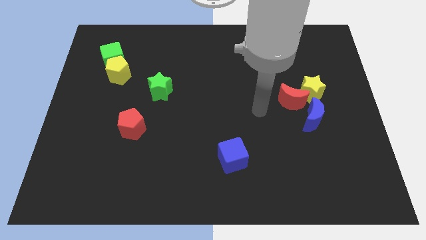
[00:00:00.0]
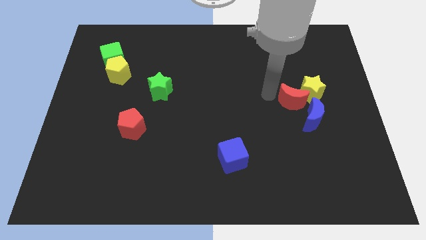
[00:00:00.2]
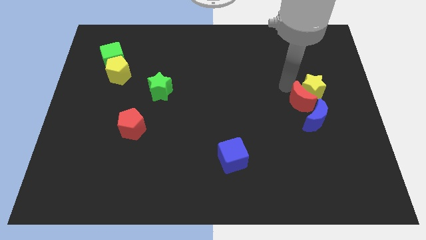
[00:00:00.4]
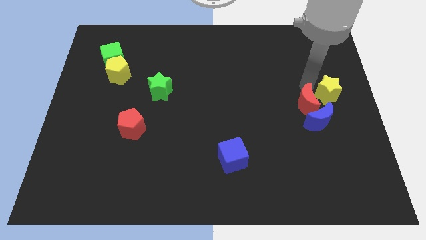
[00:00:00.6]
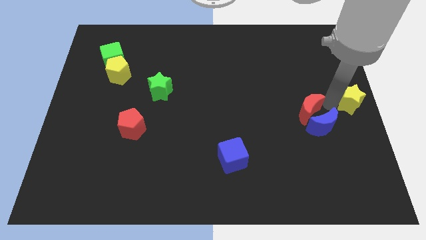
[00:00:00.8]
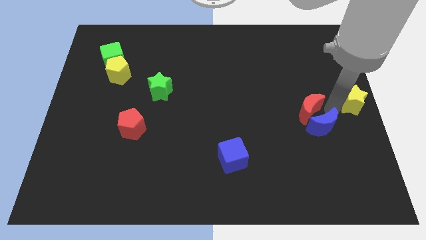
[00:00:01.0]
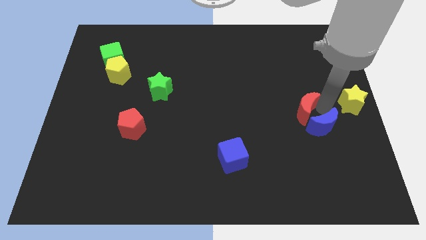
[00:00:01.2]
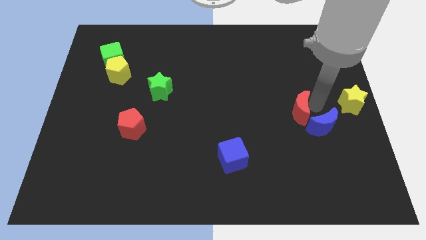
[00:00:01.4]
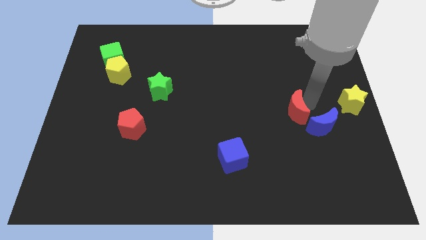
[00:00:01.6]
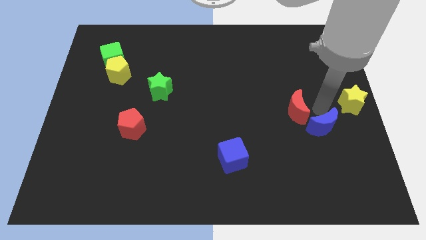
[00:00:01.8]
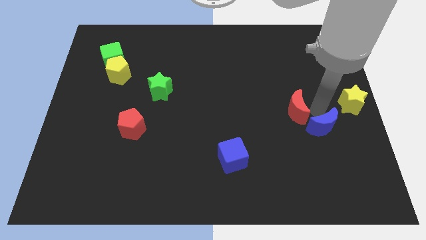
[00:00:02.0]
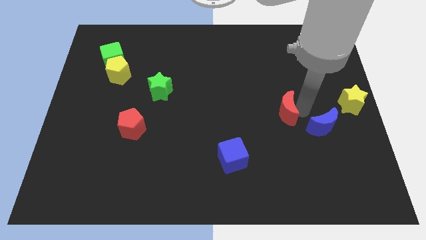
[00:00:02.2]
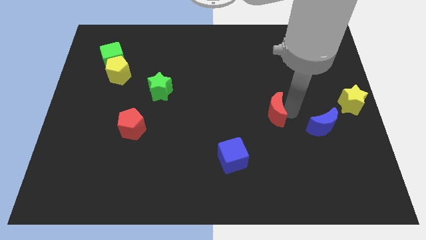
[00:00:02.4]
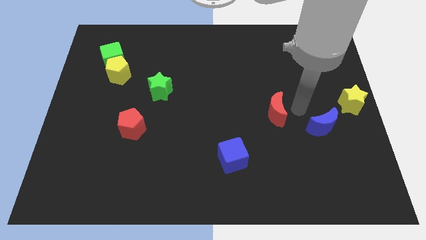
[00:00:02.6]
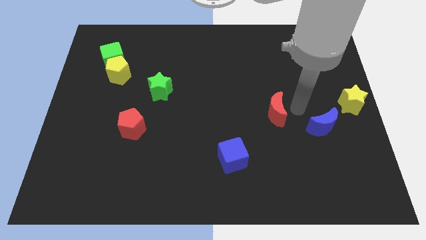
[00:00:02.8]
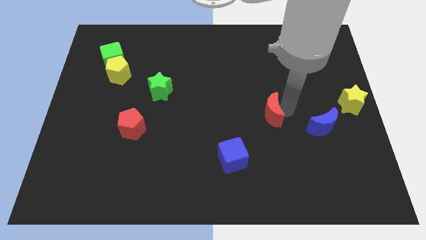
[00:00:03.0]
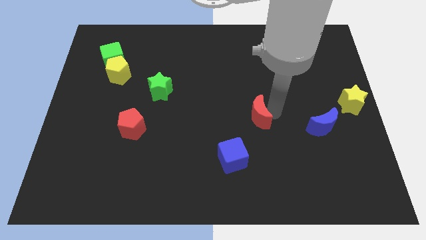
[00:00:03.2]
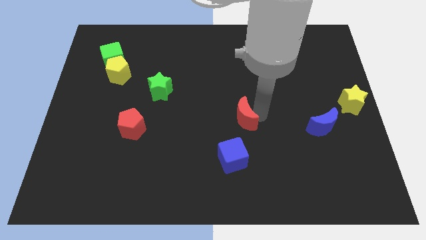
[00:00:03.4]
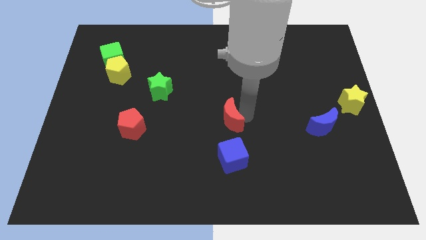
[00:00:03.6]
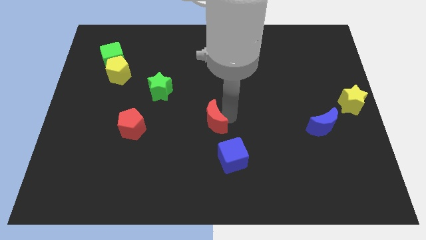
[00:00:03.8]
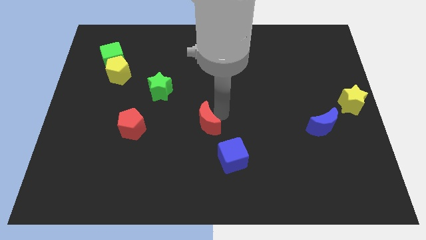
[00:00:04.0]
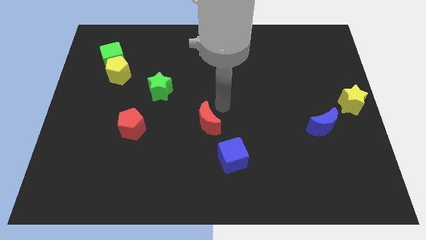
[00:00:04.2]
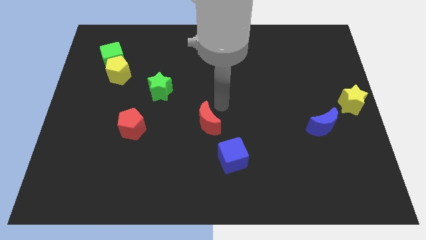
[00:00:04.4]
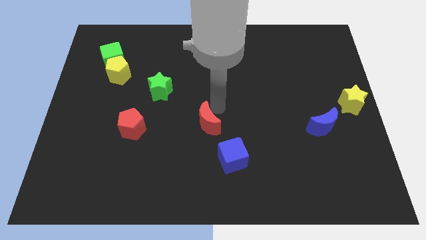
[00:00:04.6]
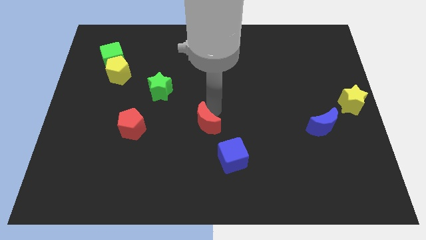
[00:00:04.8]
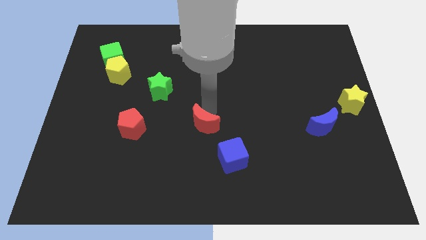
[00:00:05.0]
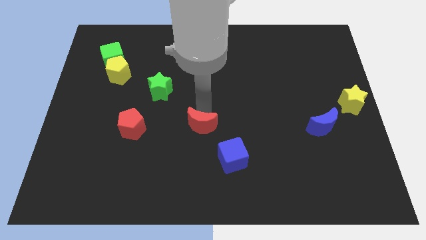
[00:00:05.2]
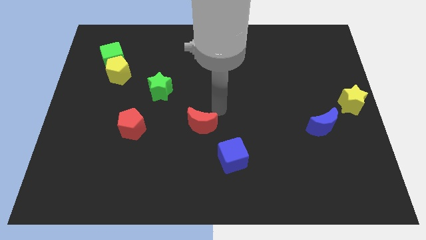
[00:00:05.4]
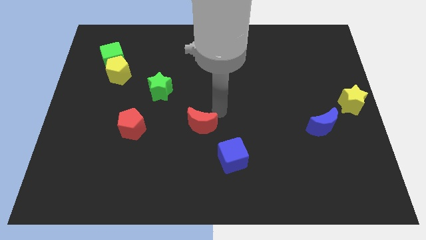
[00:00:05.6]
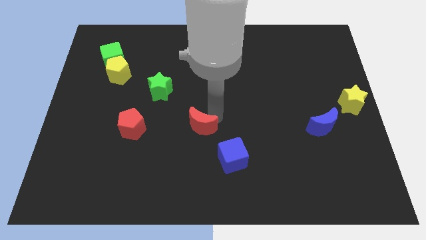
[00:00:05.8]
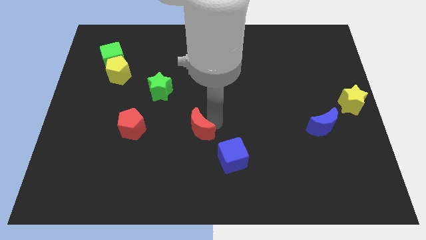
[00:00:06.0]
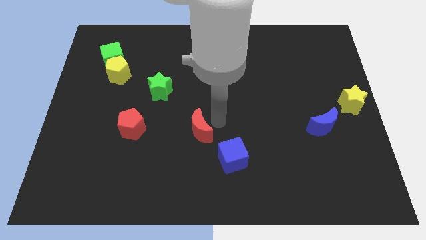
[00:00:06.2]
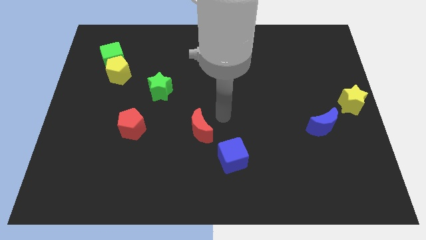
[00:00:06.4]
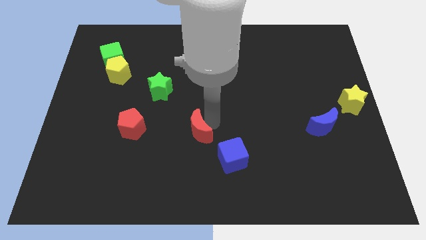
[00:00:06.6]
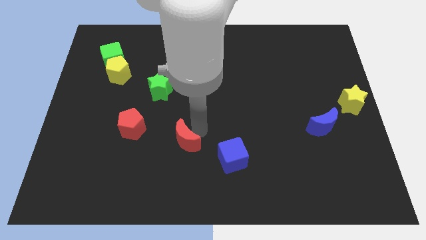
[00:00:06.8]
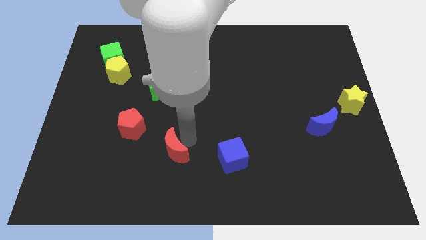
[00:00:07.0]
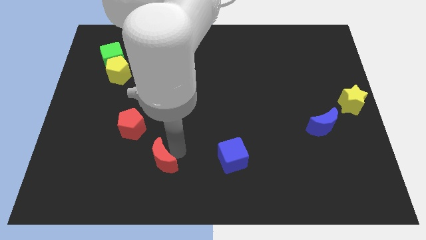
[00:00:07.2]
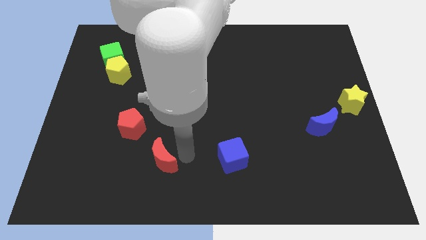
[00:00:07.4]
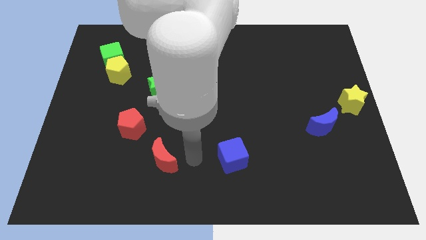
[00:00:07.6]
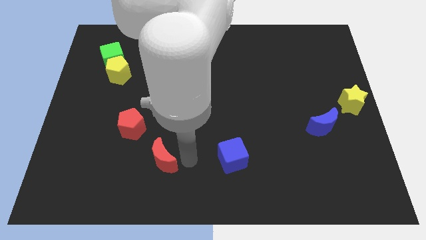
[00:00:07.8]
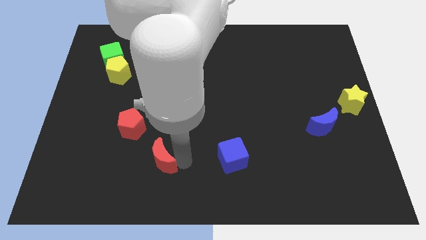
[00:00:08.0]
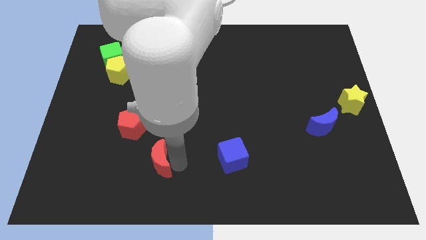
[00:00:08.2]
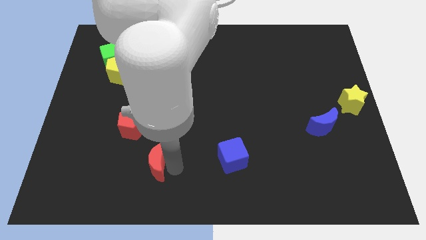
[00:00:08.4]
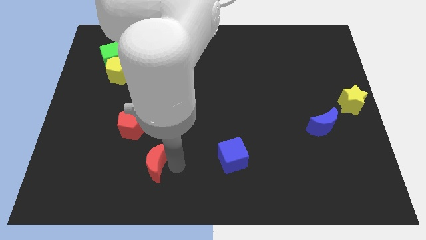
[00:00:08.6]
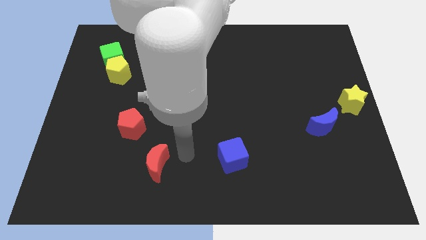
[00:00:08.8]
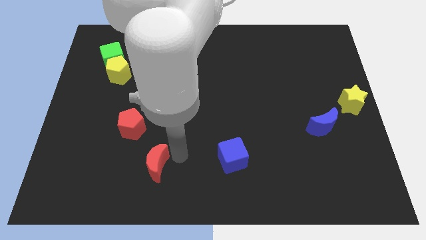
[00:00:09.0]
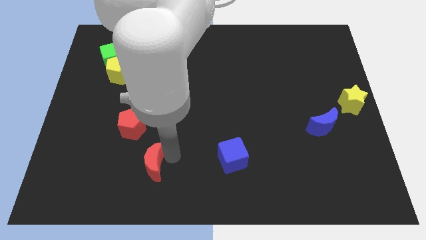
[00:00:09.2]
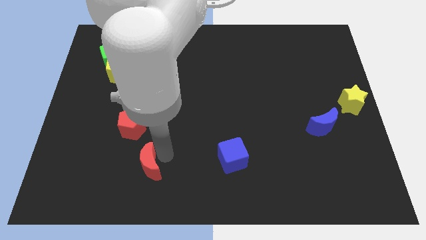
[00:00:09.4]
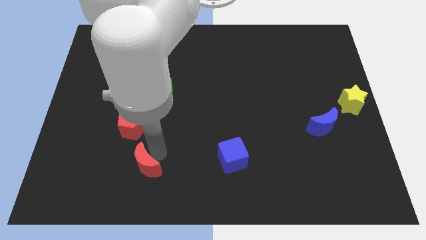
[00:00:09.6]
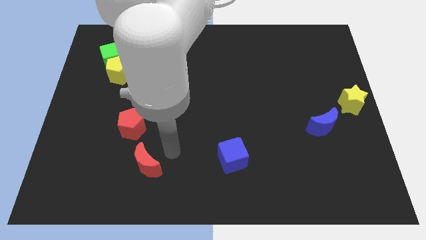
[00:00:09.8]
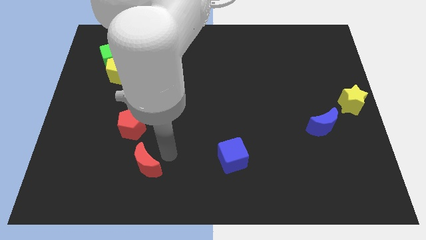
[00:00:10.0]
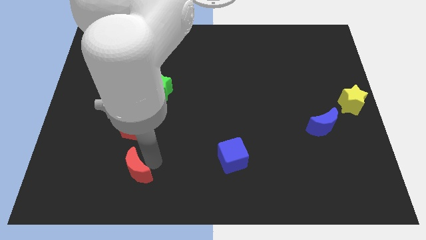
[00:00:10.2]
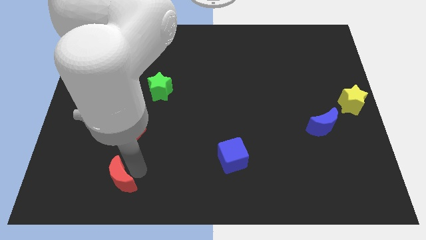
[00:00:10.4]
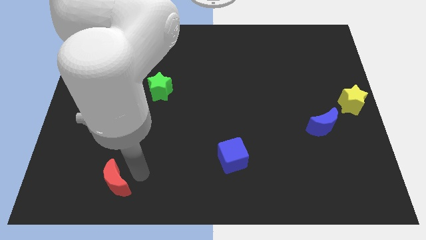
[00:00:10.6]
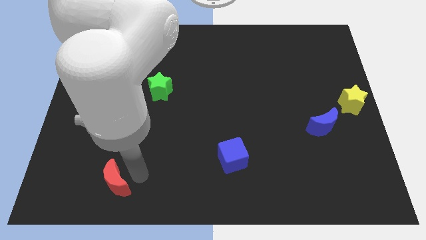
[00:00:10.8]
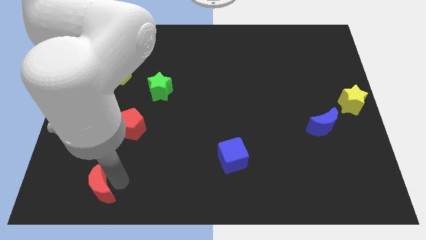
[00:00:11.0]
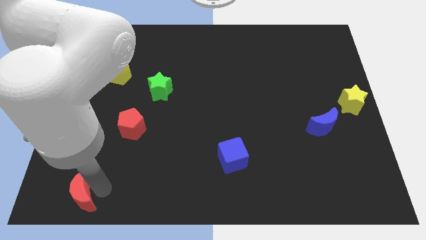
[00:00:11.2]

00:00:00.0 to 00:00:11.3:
slide the red moon to the bottom left of the board

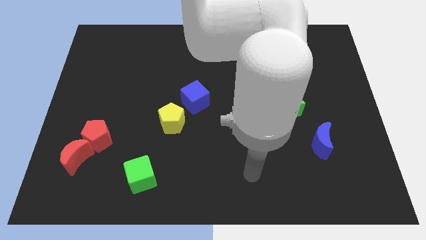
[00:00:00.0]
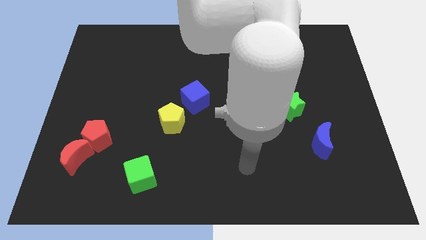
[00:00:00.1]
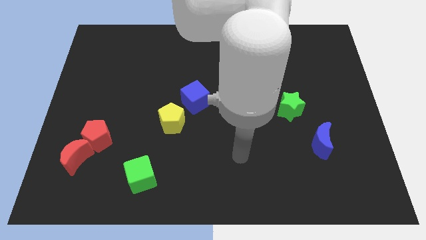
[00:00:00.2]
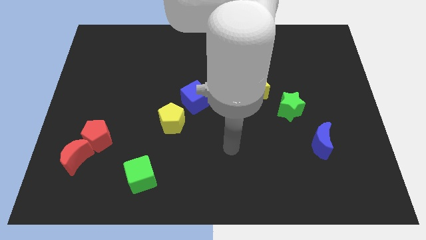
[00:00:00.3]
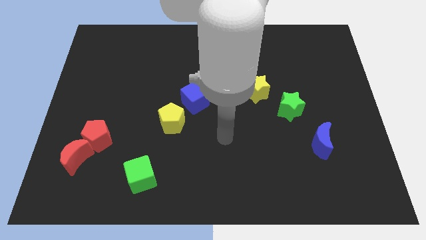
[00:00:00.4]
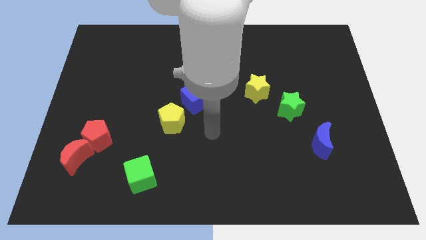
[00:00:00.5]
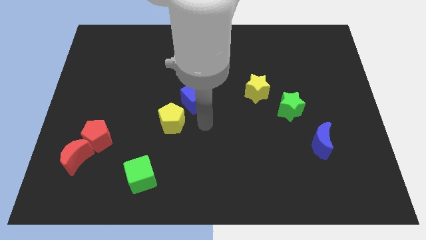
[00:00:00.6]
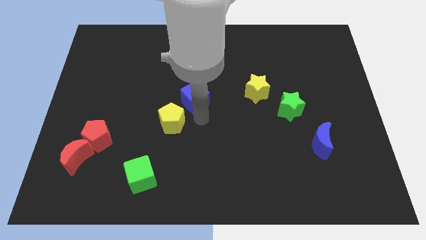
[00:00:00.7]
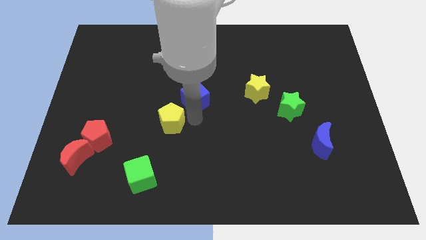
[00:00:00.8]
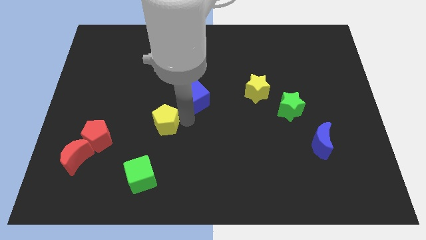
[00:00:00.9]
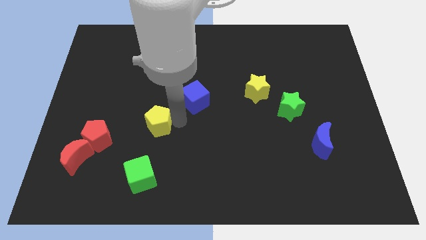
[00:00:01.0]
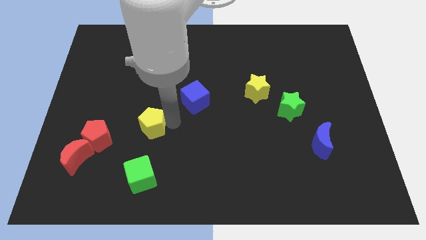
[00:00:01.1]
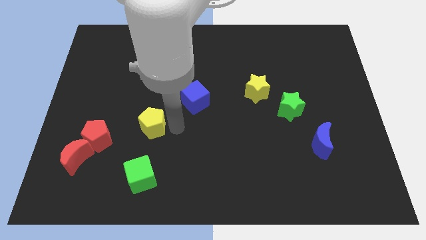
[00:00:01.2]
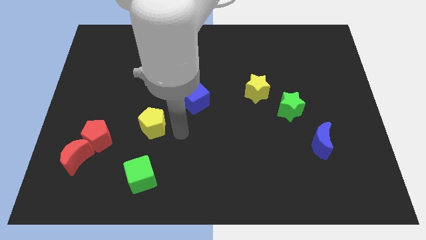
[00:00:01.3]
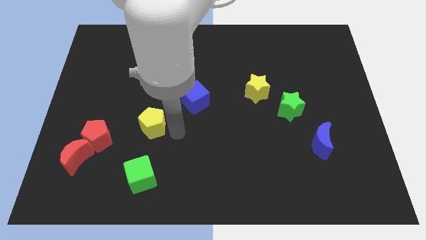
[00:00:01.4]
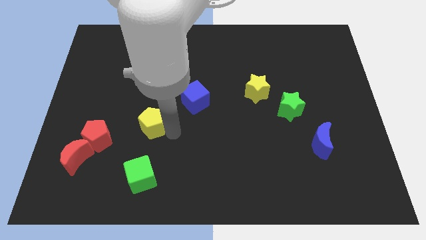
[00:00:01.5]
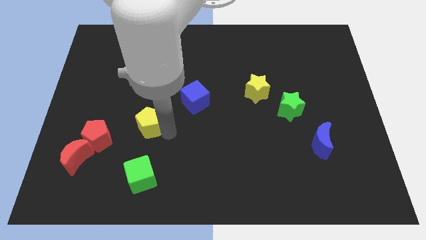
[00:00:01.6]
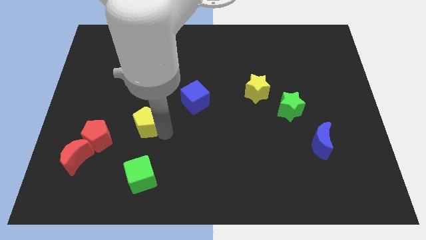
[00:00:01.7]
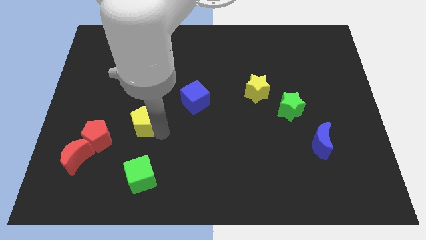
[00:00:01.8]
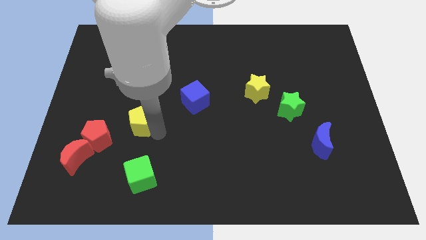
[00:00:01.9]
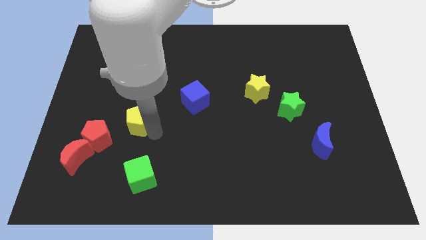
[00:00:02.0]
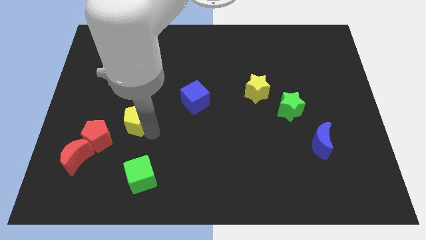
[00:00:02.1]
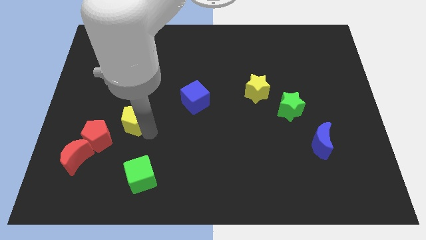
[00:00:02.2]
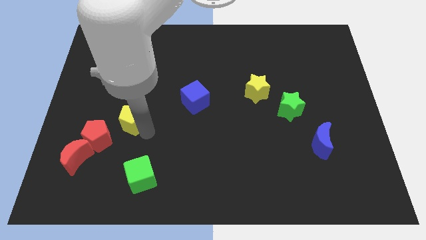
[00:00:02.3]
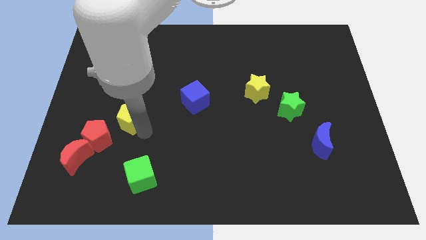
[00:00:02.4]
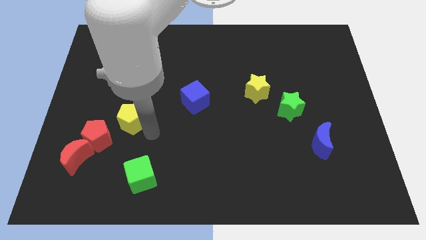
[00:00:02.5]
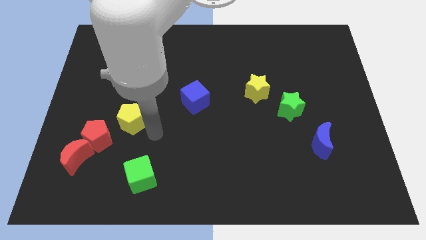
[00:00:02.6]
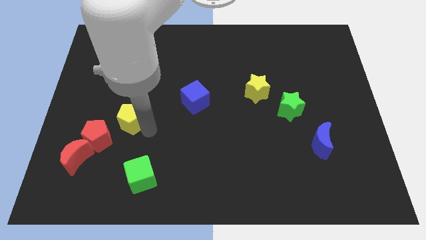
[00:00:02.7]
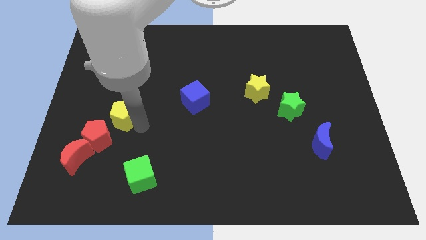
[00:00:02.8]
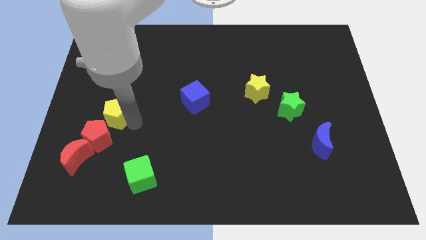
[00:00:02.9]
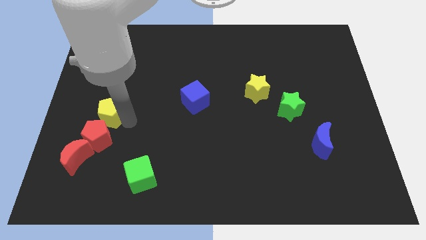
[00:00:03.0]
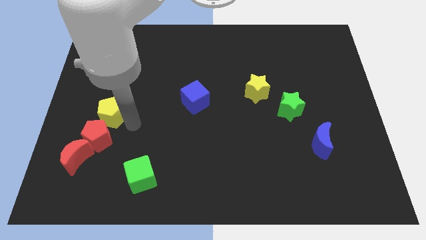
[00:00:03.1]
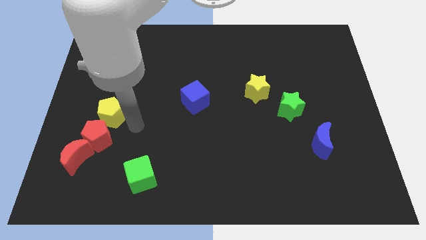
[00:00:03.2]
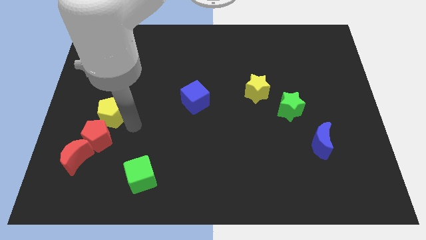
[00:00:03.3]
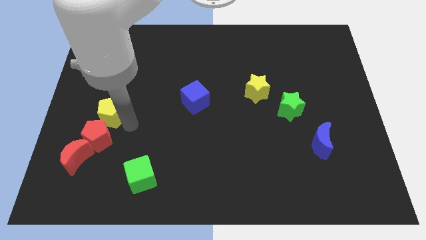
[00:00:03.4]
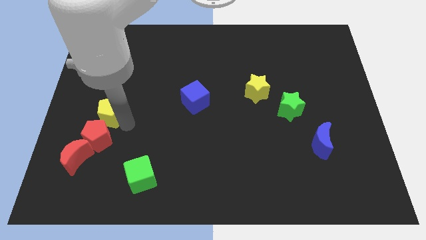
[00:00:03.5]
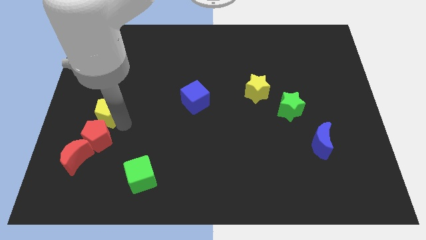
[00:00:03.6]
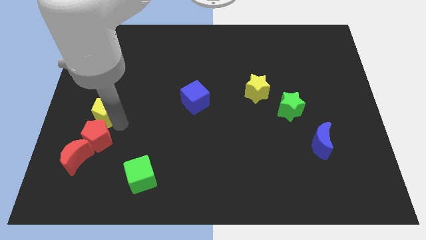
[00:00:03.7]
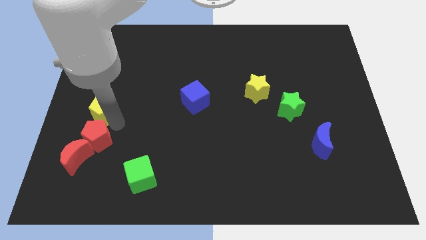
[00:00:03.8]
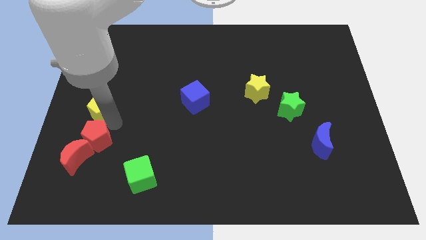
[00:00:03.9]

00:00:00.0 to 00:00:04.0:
push the yellow pentagon to the left side
